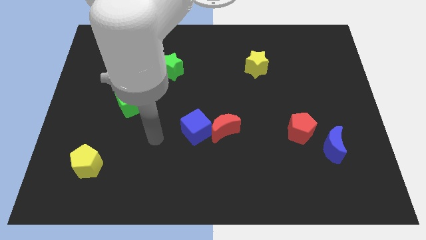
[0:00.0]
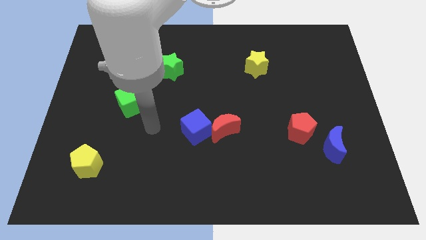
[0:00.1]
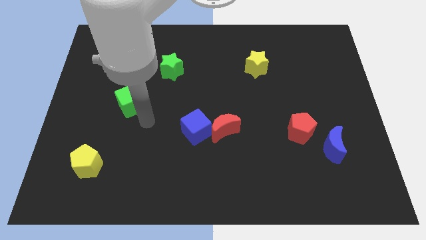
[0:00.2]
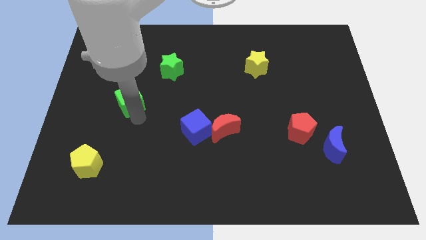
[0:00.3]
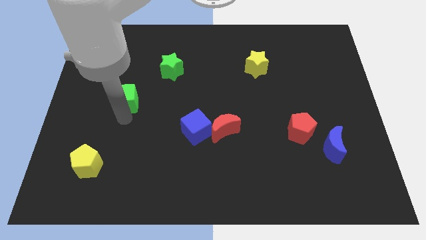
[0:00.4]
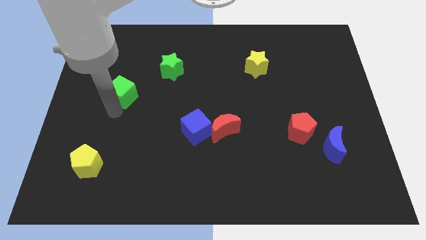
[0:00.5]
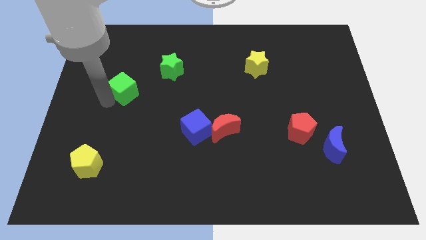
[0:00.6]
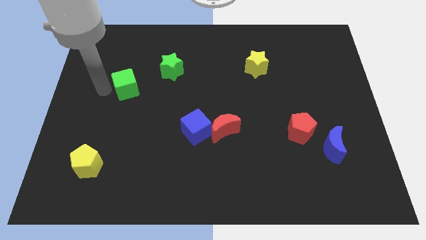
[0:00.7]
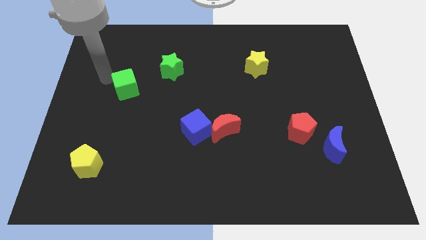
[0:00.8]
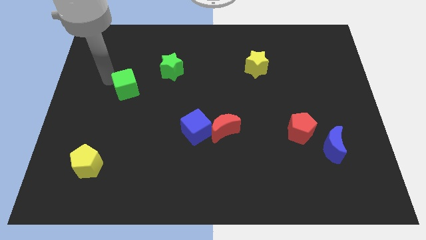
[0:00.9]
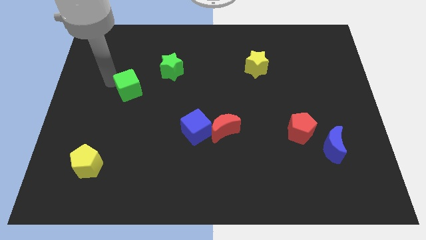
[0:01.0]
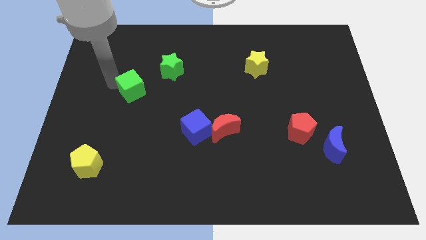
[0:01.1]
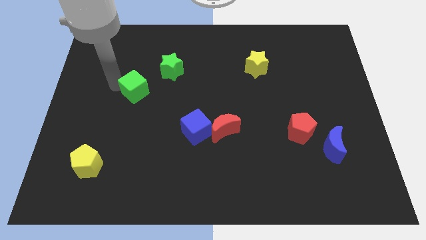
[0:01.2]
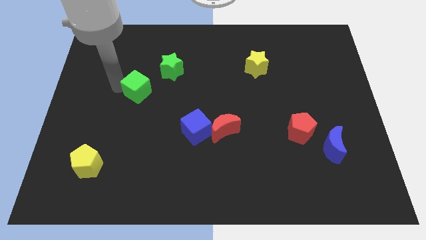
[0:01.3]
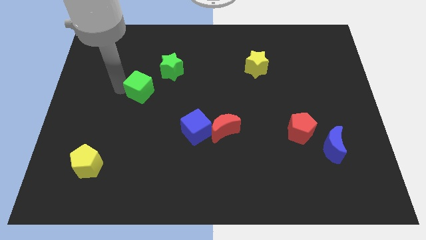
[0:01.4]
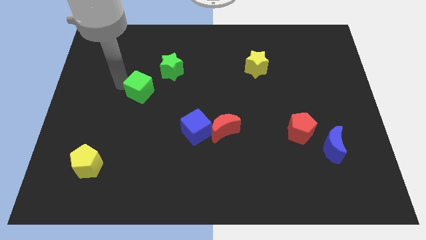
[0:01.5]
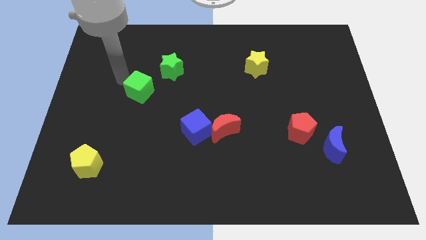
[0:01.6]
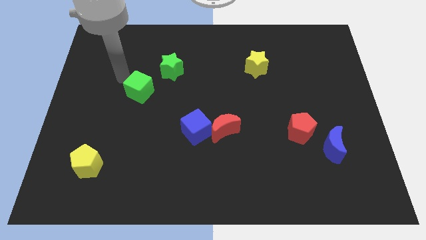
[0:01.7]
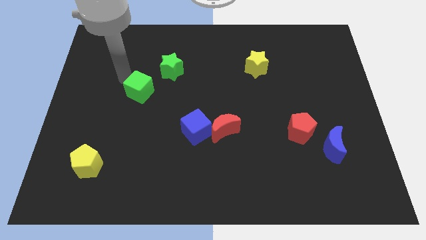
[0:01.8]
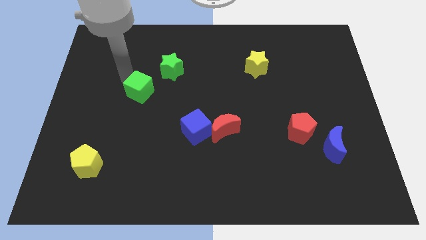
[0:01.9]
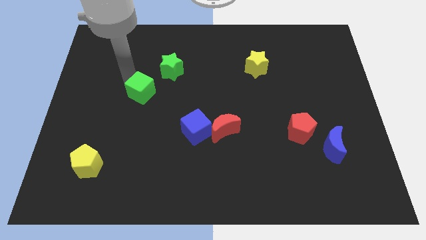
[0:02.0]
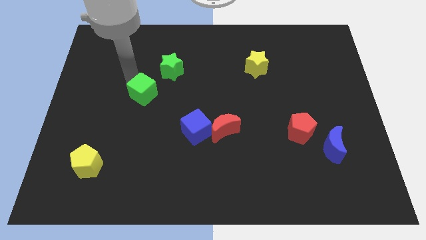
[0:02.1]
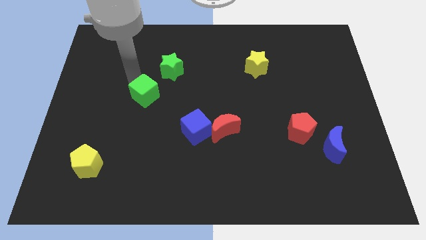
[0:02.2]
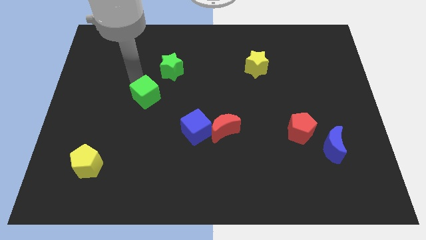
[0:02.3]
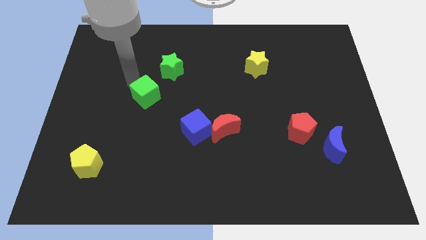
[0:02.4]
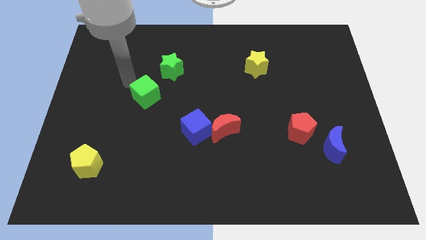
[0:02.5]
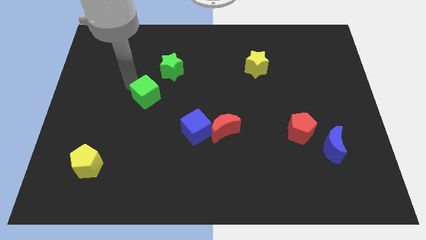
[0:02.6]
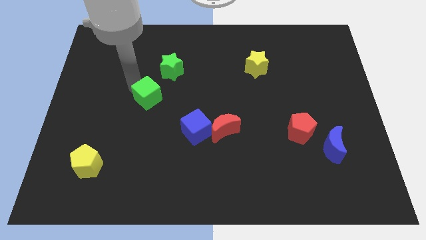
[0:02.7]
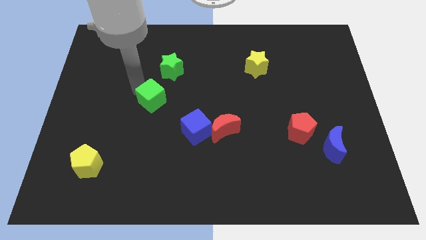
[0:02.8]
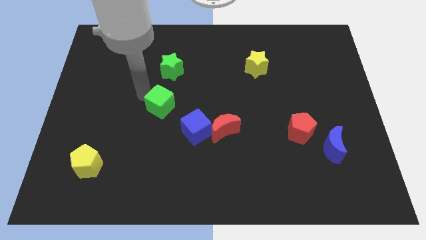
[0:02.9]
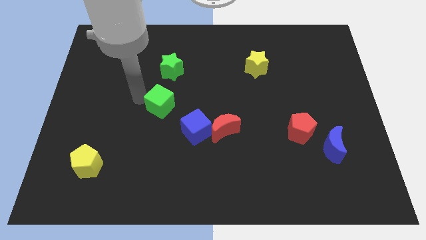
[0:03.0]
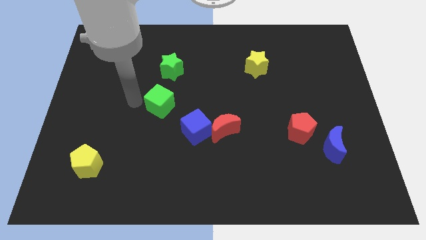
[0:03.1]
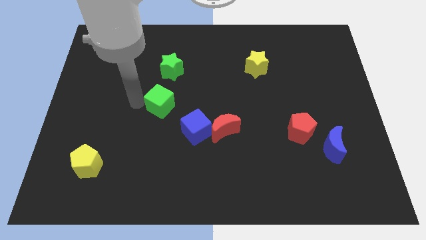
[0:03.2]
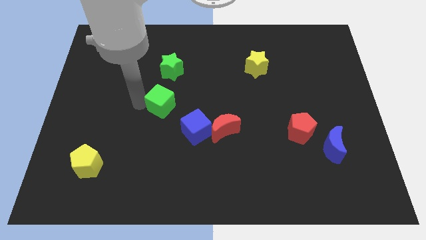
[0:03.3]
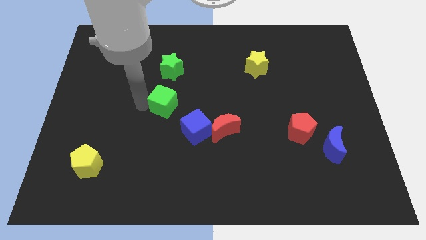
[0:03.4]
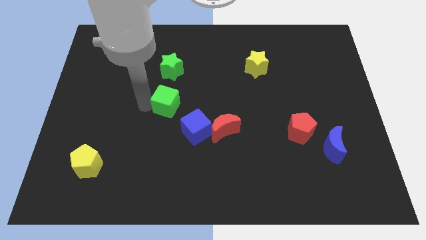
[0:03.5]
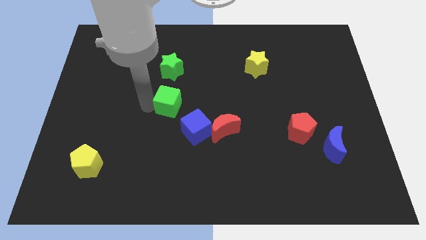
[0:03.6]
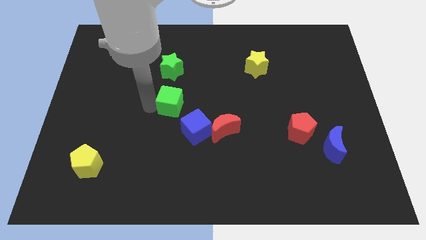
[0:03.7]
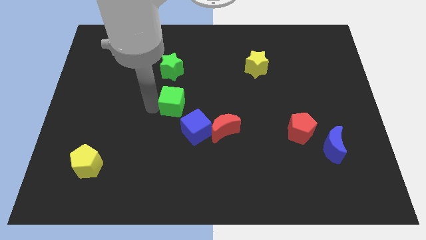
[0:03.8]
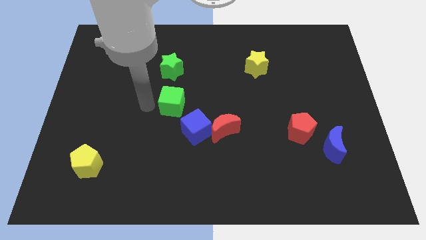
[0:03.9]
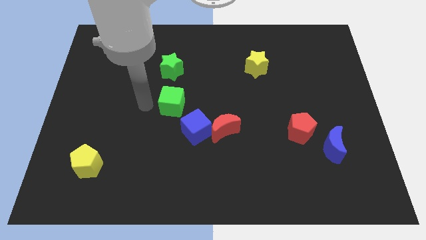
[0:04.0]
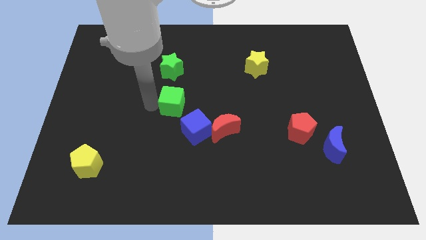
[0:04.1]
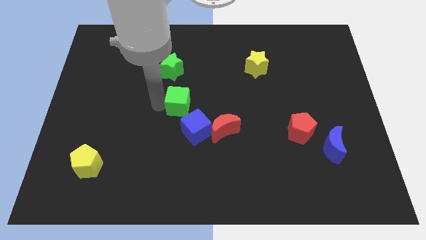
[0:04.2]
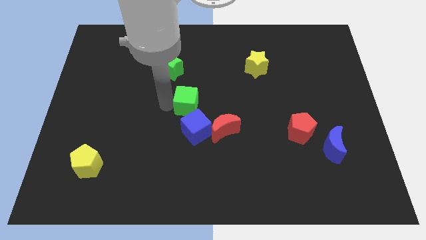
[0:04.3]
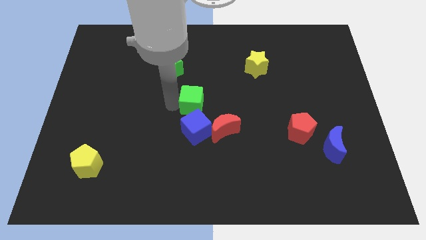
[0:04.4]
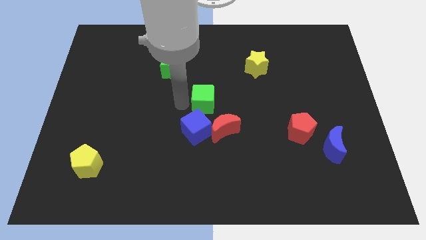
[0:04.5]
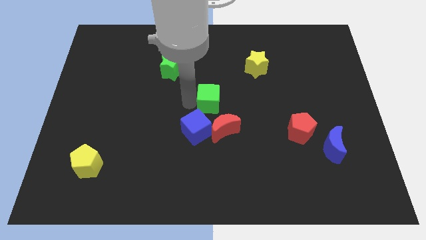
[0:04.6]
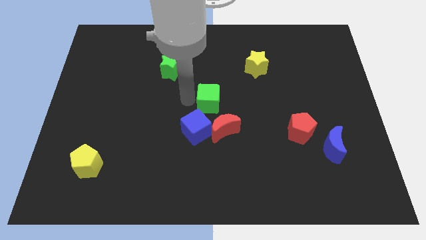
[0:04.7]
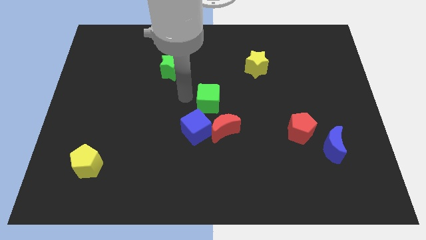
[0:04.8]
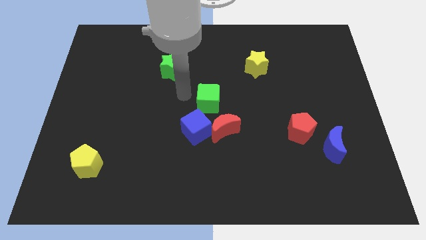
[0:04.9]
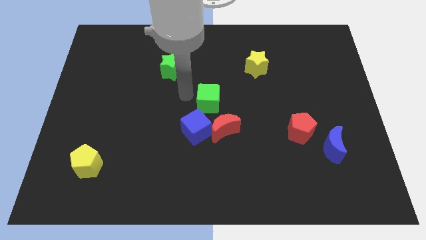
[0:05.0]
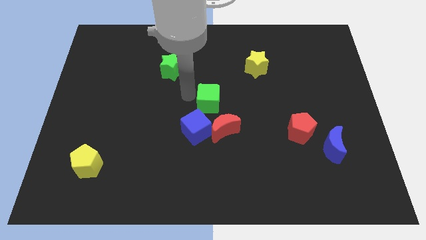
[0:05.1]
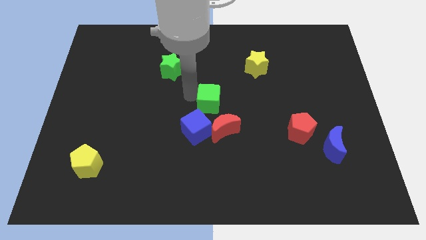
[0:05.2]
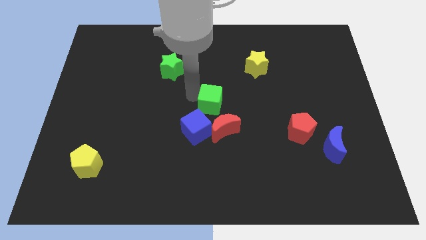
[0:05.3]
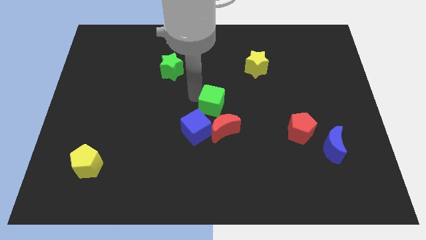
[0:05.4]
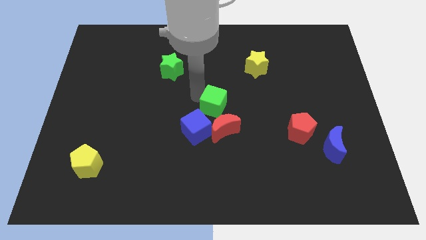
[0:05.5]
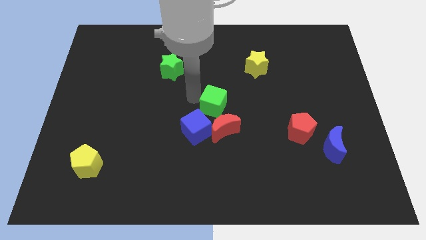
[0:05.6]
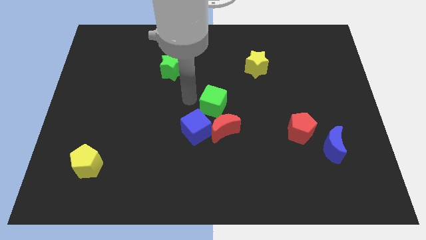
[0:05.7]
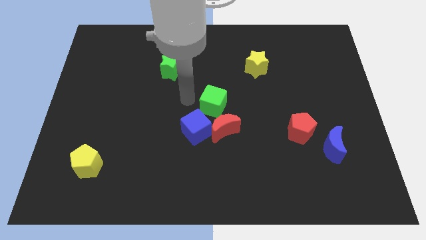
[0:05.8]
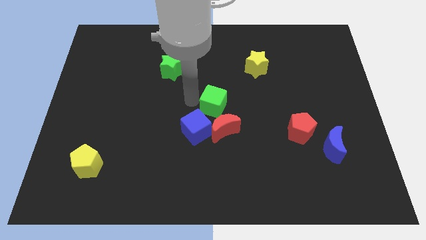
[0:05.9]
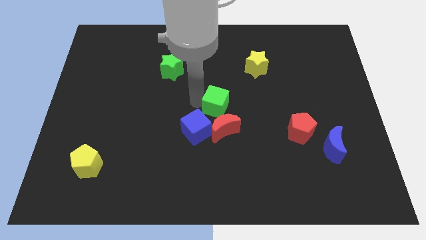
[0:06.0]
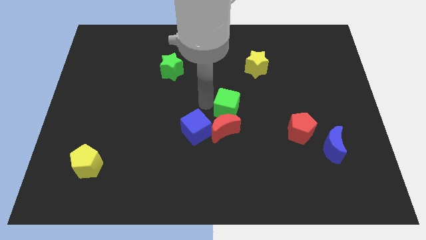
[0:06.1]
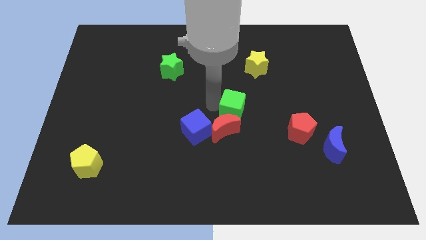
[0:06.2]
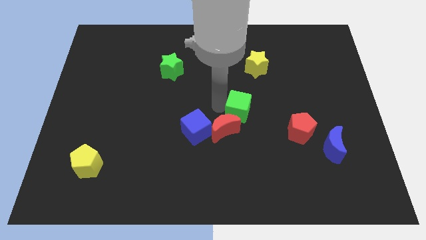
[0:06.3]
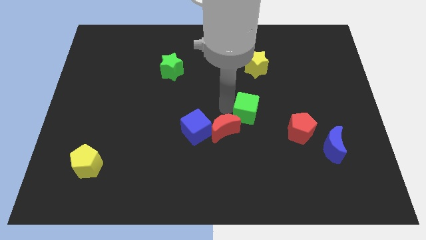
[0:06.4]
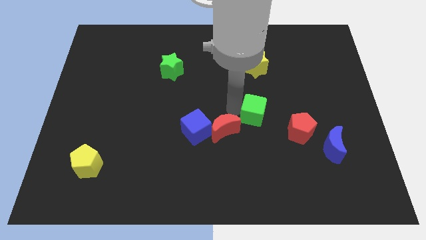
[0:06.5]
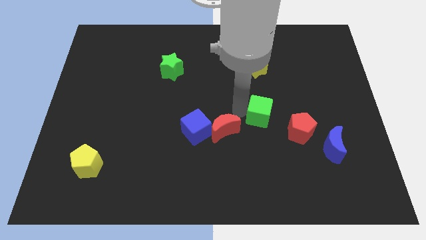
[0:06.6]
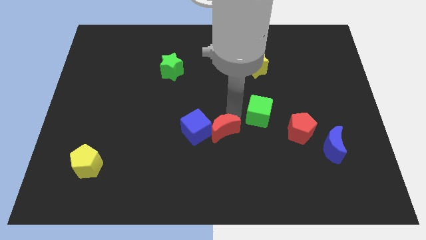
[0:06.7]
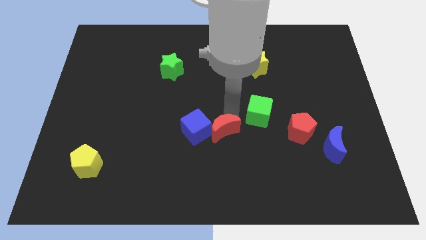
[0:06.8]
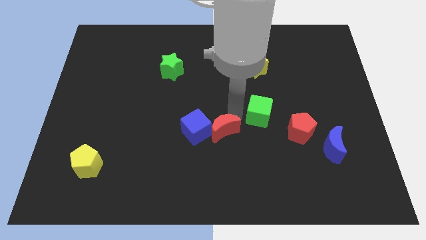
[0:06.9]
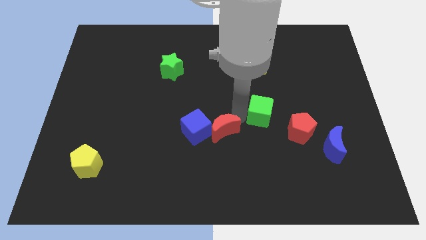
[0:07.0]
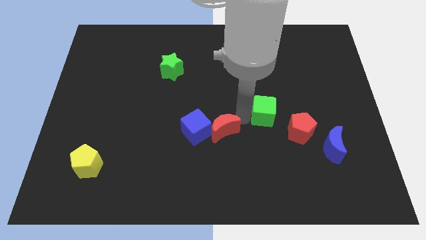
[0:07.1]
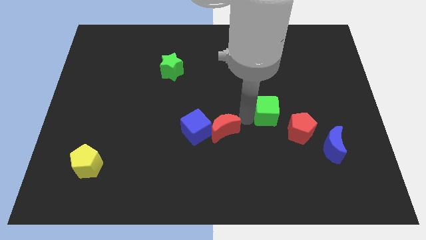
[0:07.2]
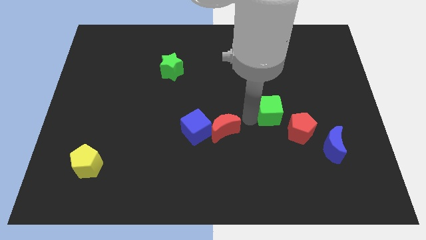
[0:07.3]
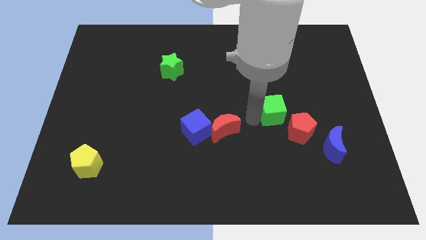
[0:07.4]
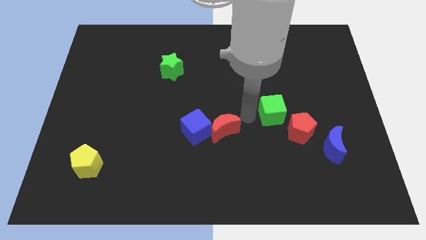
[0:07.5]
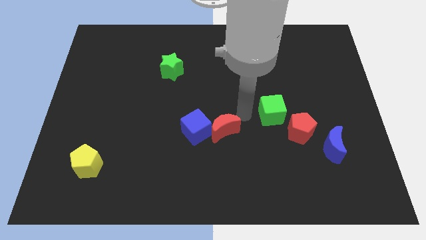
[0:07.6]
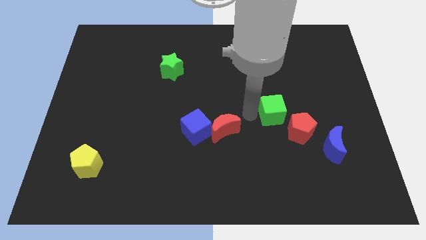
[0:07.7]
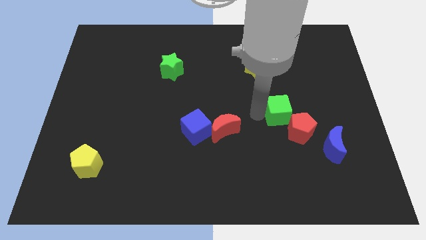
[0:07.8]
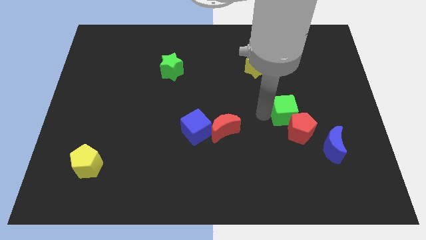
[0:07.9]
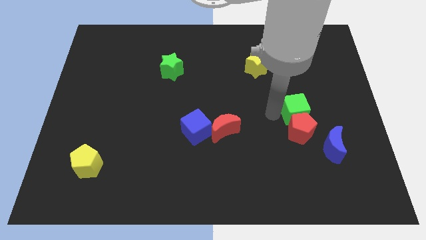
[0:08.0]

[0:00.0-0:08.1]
slide the green cube to the top right of the red pentagon
